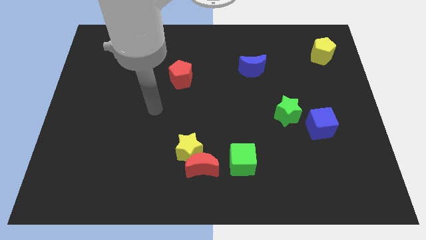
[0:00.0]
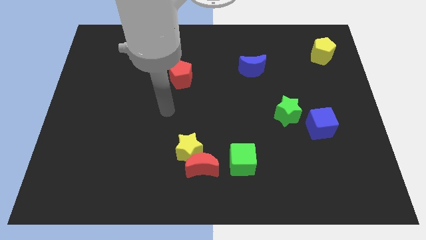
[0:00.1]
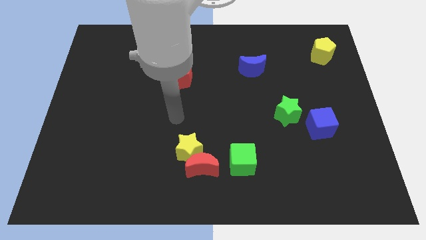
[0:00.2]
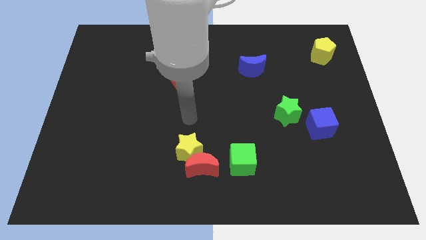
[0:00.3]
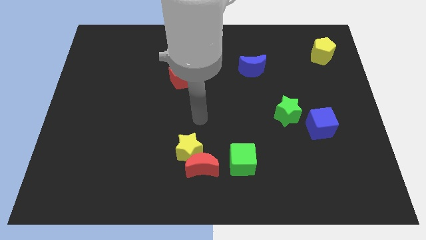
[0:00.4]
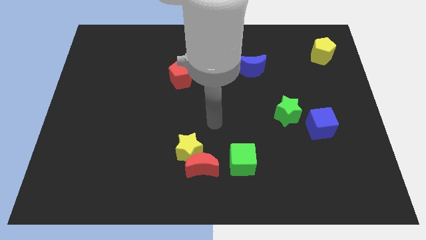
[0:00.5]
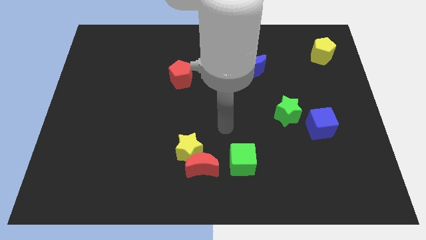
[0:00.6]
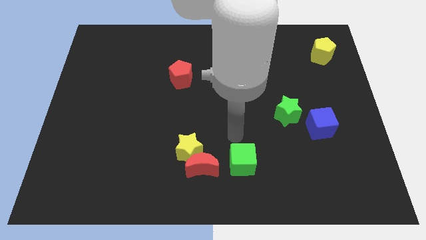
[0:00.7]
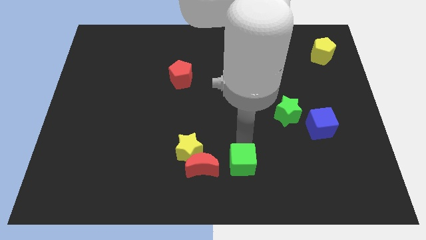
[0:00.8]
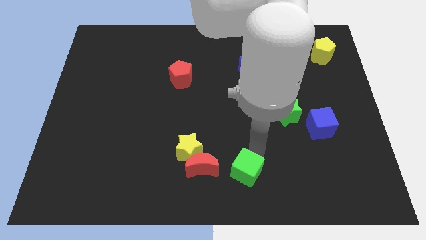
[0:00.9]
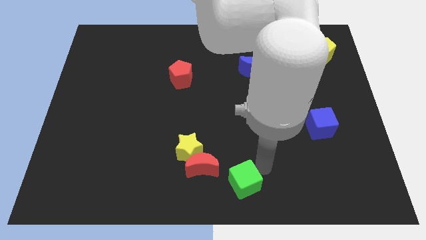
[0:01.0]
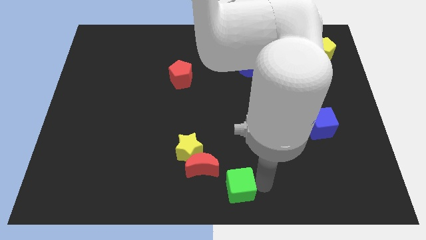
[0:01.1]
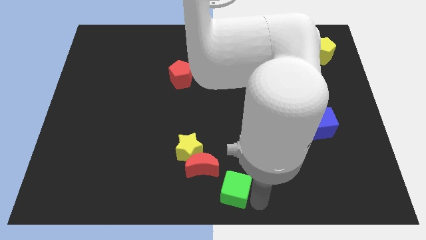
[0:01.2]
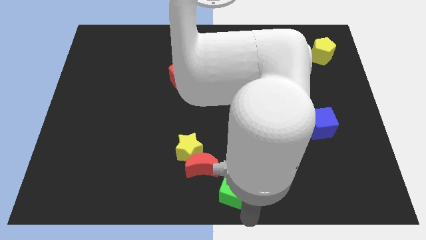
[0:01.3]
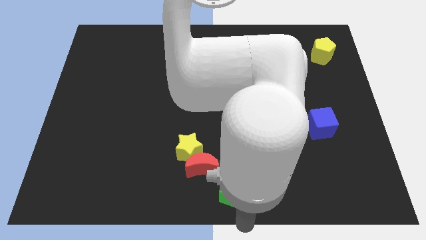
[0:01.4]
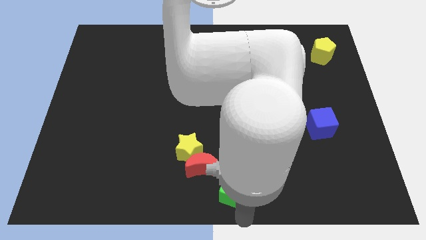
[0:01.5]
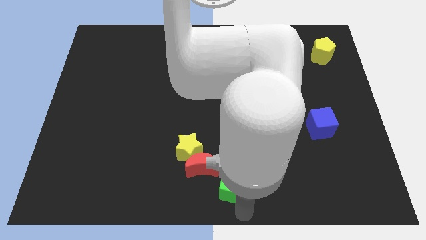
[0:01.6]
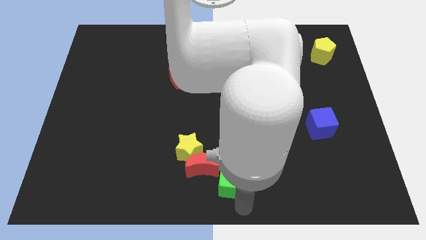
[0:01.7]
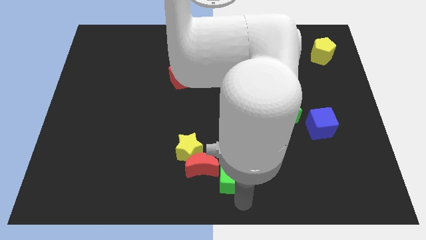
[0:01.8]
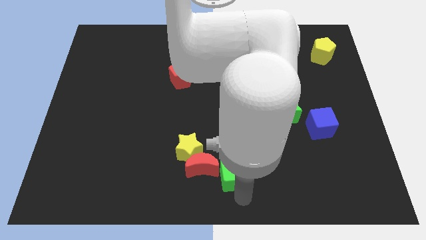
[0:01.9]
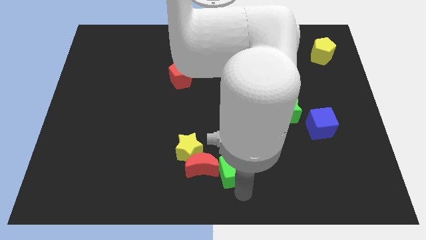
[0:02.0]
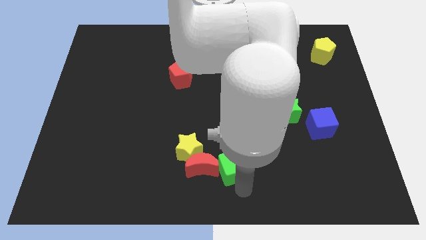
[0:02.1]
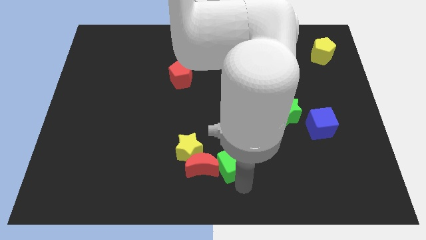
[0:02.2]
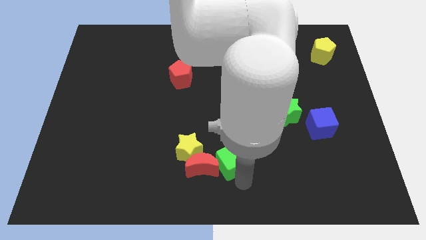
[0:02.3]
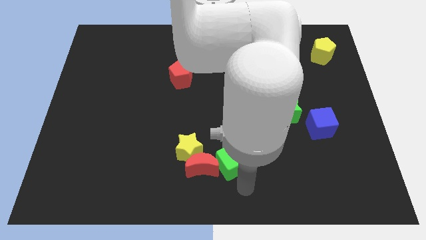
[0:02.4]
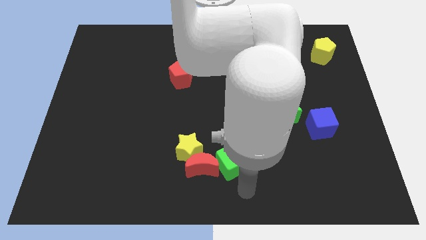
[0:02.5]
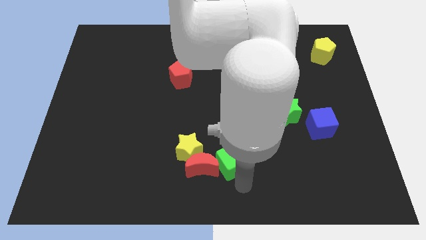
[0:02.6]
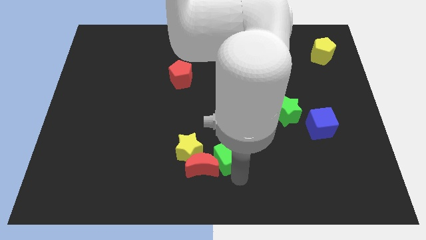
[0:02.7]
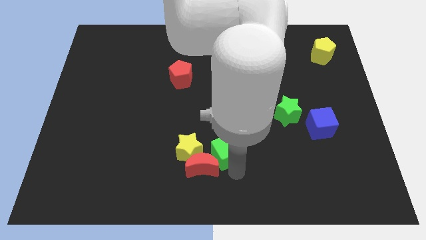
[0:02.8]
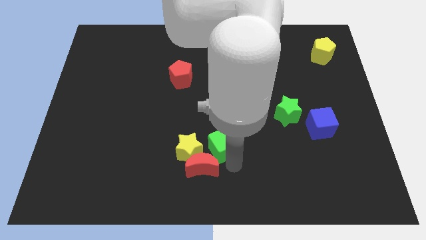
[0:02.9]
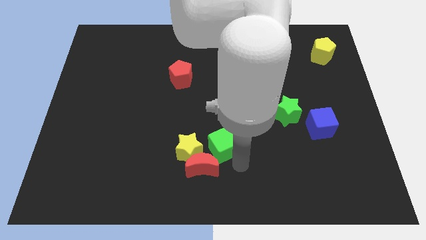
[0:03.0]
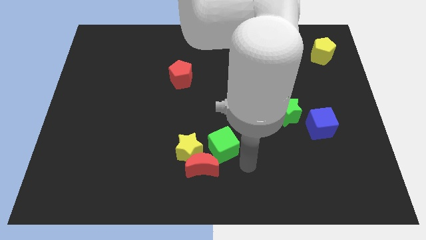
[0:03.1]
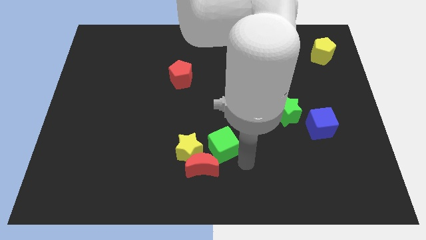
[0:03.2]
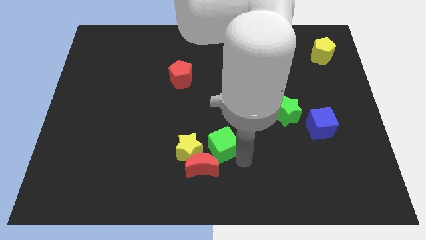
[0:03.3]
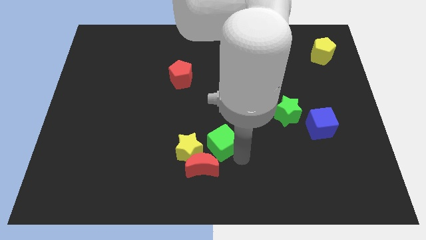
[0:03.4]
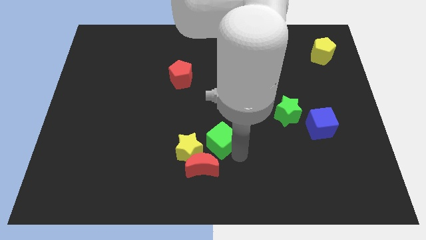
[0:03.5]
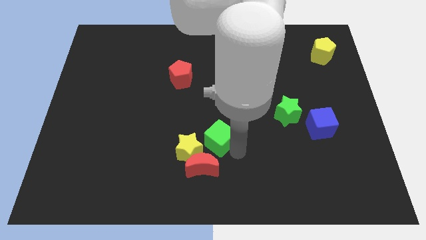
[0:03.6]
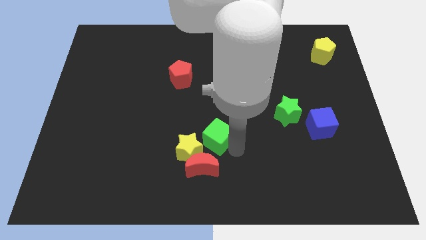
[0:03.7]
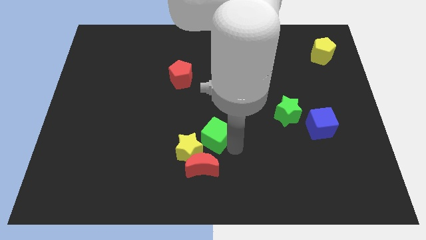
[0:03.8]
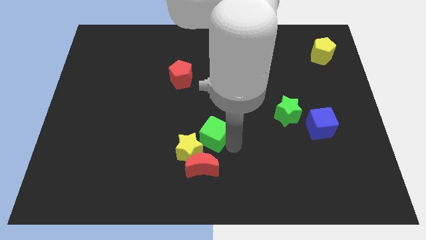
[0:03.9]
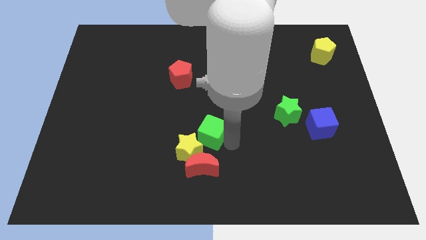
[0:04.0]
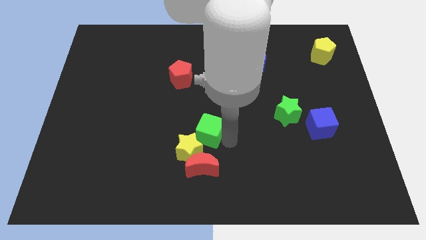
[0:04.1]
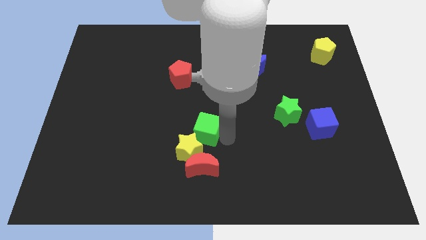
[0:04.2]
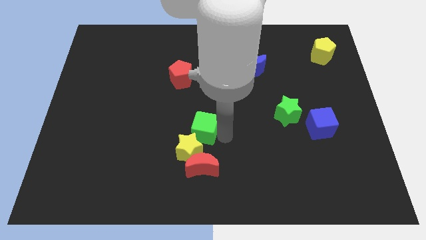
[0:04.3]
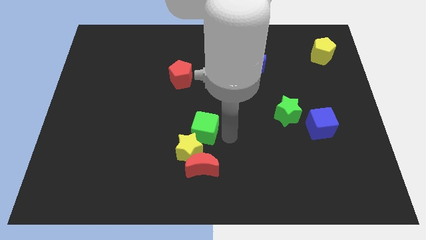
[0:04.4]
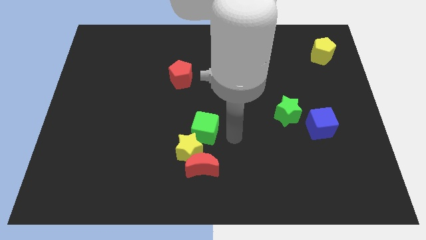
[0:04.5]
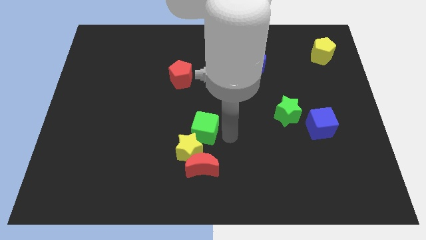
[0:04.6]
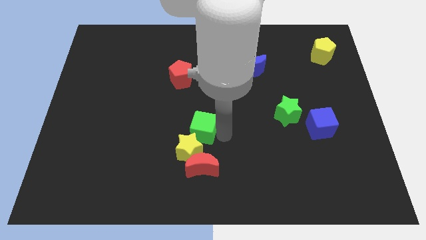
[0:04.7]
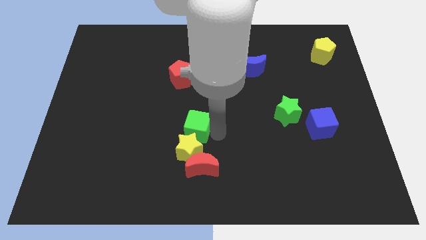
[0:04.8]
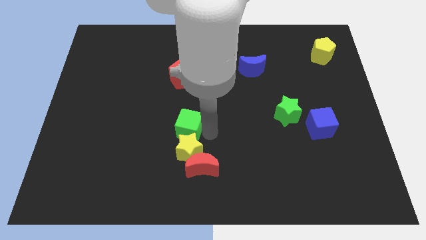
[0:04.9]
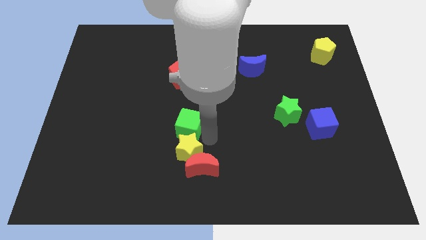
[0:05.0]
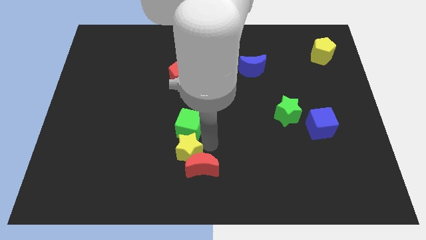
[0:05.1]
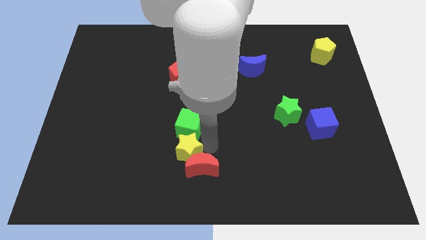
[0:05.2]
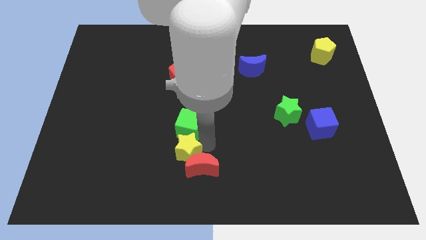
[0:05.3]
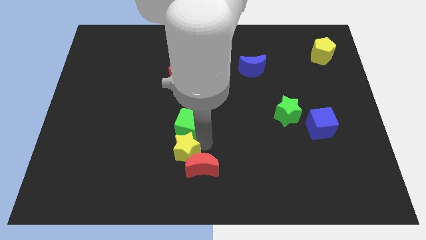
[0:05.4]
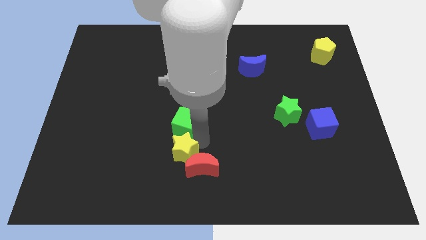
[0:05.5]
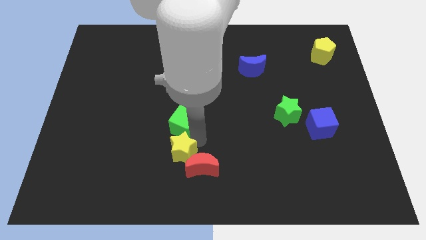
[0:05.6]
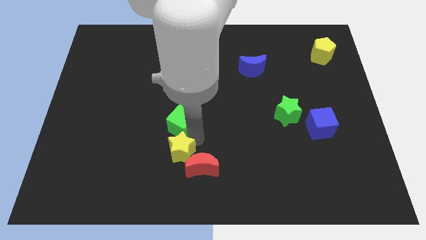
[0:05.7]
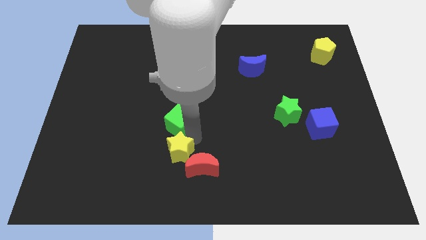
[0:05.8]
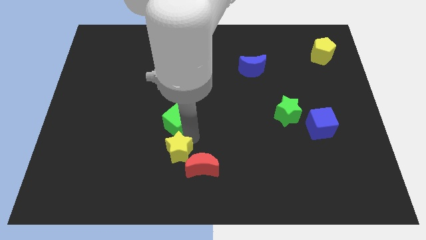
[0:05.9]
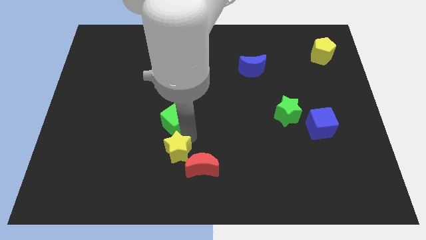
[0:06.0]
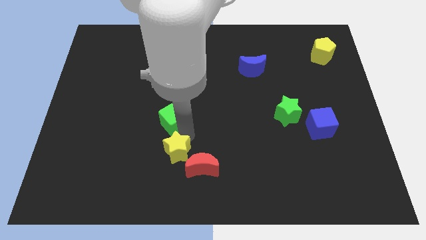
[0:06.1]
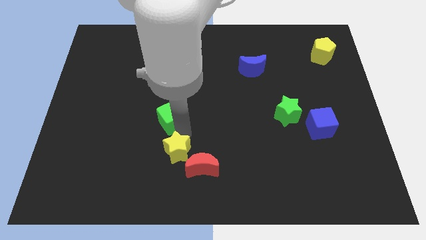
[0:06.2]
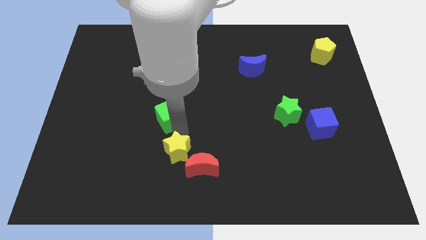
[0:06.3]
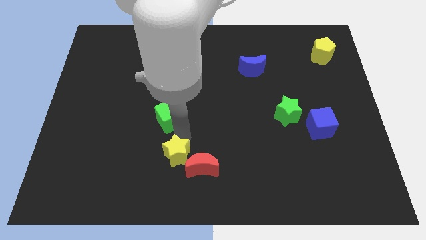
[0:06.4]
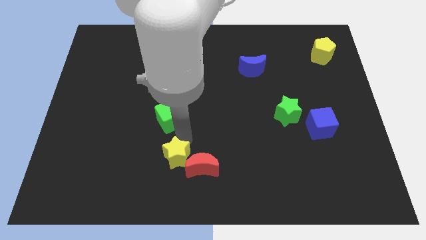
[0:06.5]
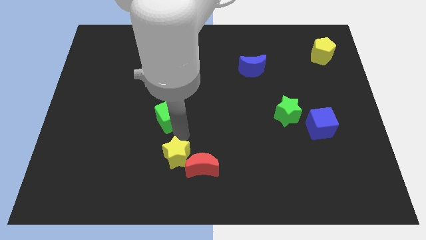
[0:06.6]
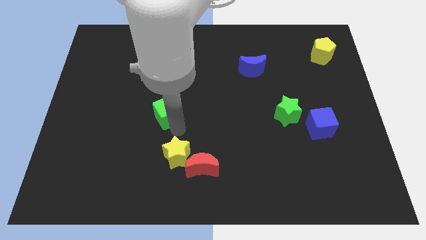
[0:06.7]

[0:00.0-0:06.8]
move the green cube up and then left

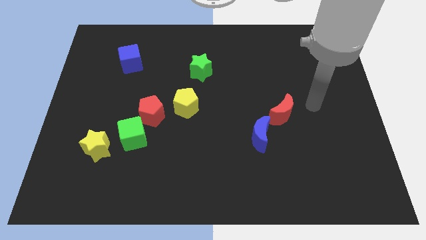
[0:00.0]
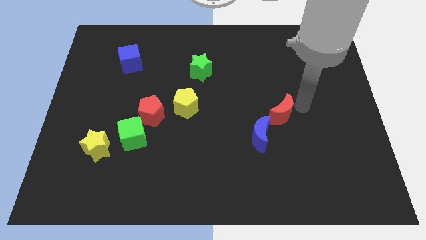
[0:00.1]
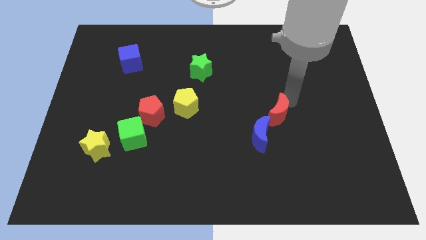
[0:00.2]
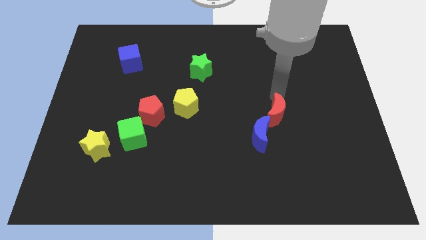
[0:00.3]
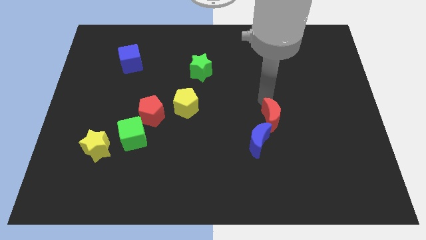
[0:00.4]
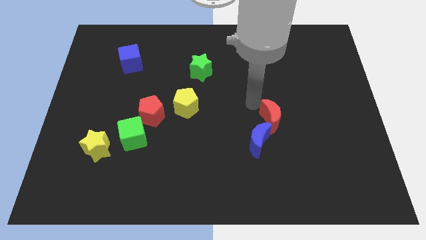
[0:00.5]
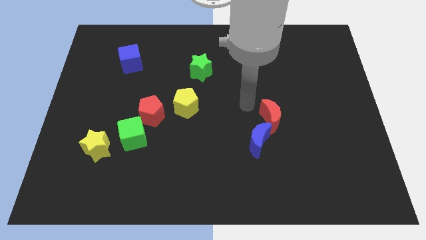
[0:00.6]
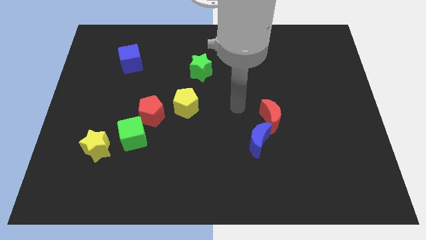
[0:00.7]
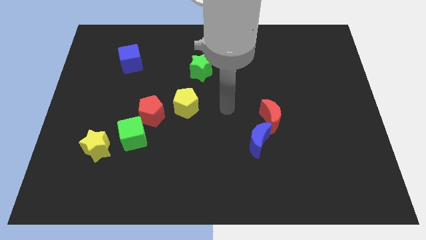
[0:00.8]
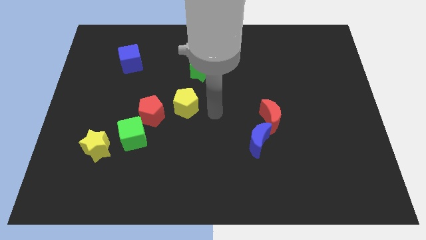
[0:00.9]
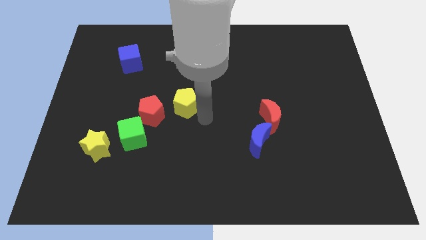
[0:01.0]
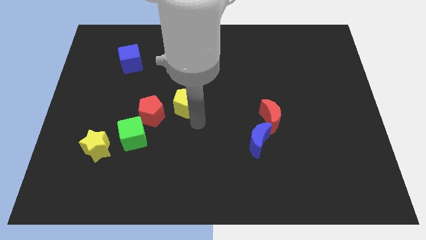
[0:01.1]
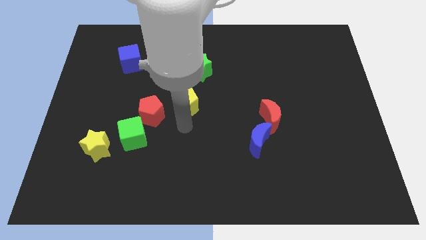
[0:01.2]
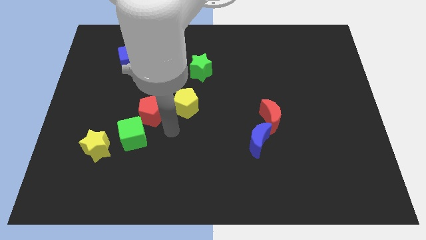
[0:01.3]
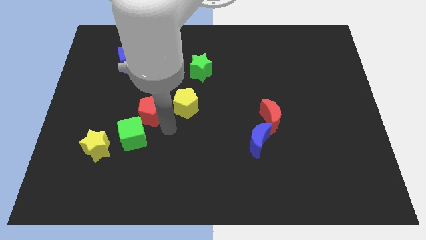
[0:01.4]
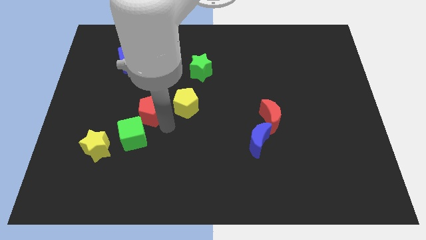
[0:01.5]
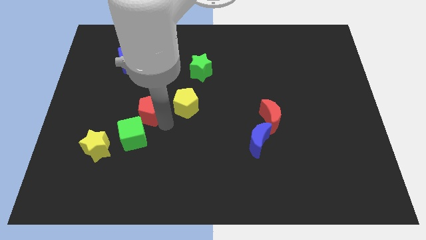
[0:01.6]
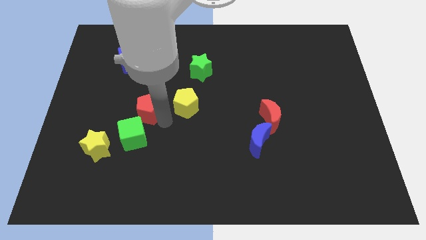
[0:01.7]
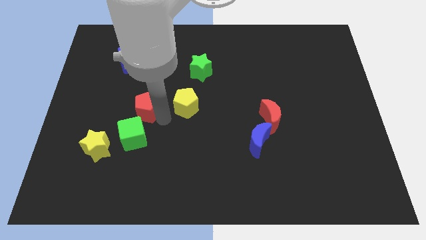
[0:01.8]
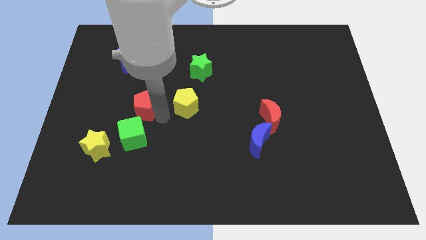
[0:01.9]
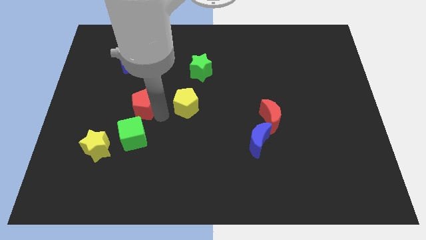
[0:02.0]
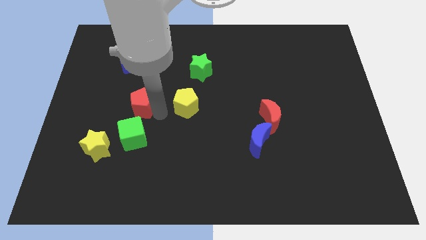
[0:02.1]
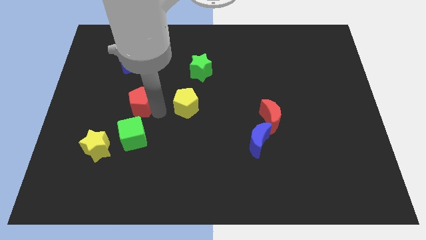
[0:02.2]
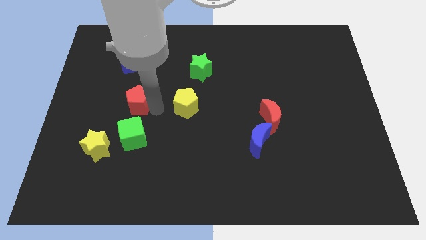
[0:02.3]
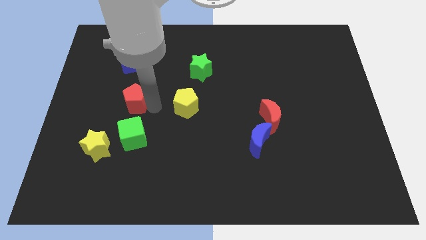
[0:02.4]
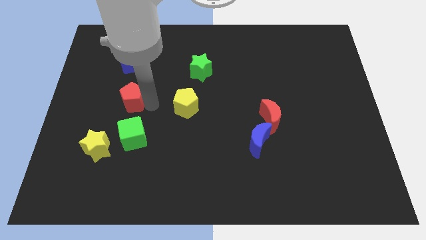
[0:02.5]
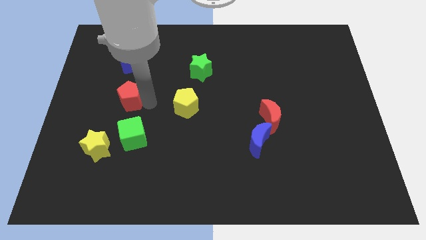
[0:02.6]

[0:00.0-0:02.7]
push the red pentagon slightly up and left diagonally
